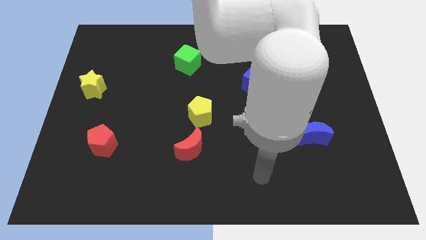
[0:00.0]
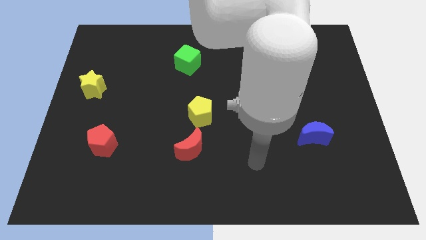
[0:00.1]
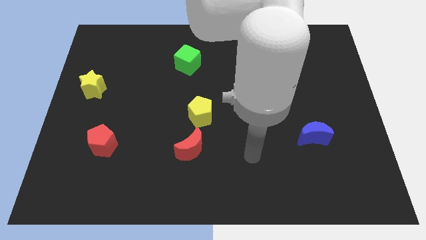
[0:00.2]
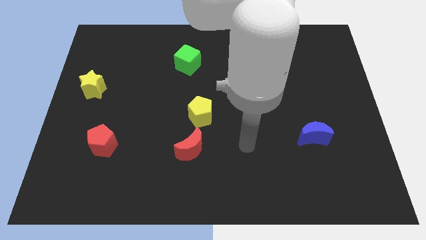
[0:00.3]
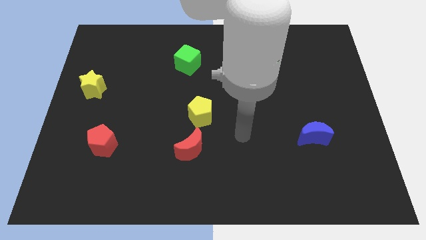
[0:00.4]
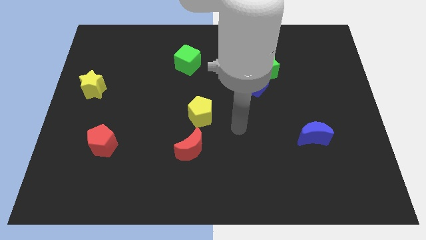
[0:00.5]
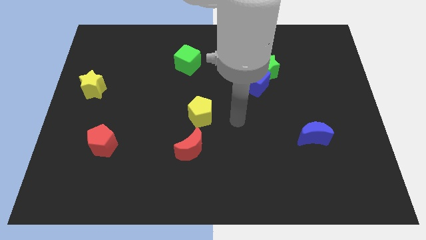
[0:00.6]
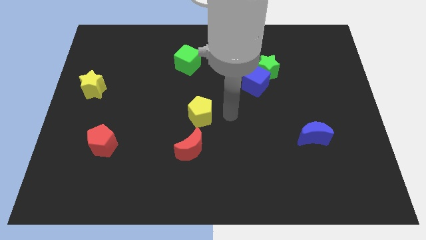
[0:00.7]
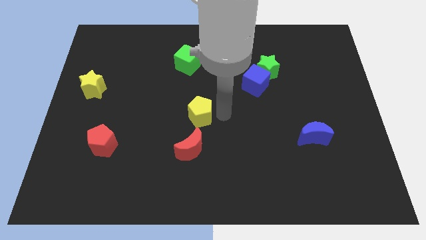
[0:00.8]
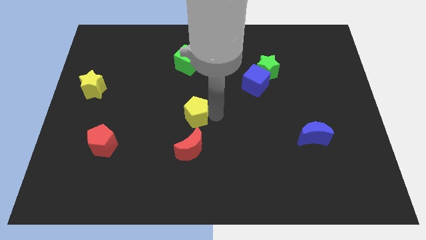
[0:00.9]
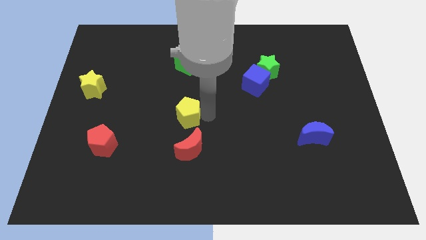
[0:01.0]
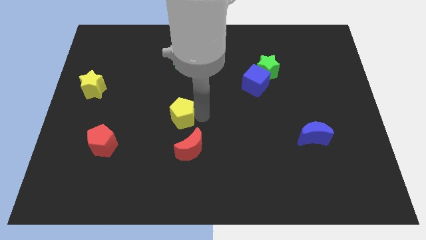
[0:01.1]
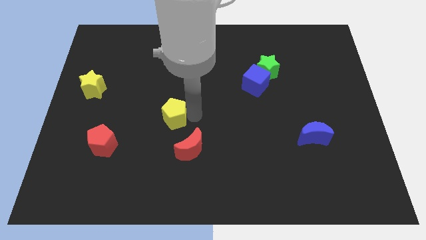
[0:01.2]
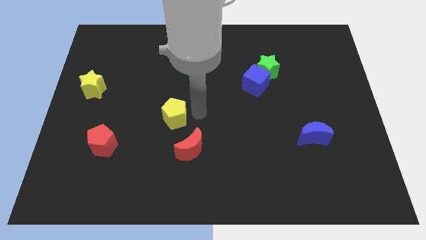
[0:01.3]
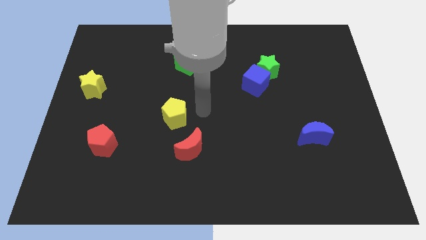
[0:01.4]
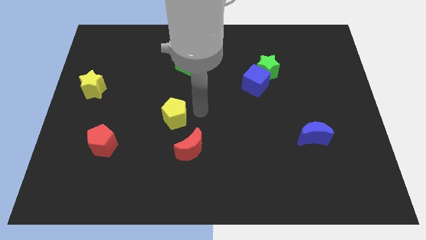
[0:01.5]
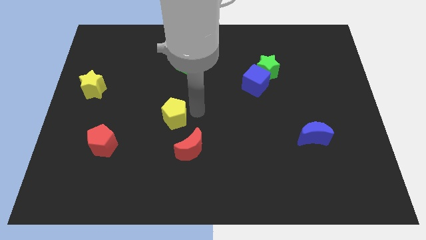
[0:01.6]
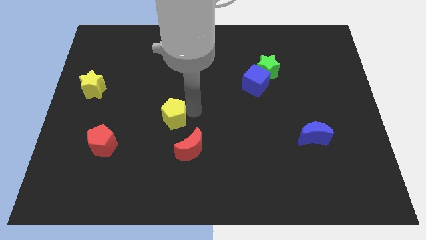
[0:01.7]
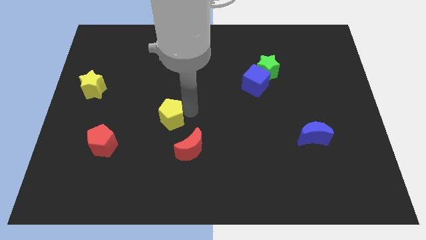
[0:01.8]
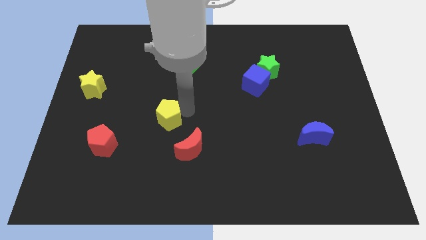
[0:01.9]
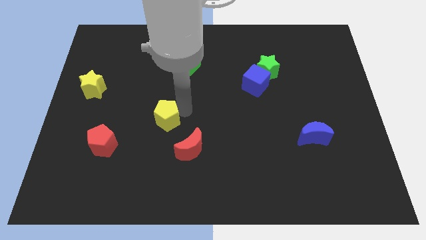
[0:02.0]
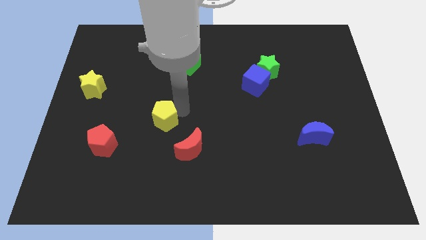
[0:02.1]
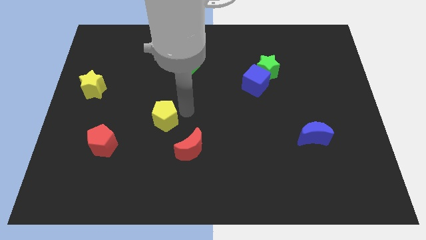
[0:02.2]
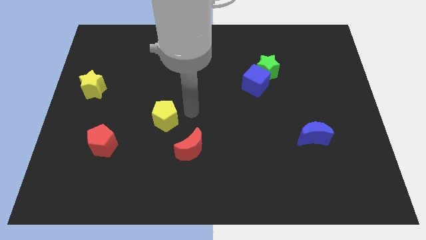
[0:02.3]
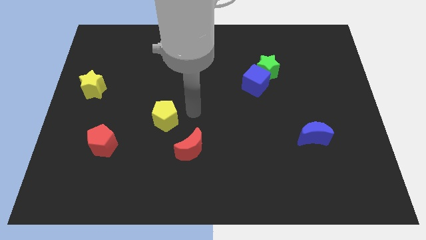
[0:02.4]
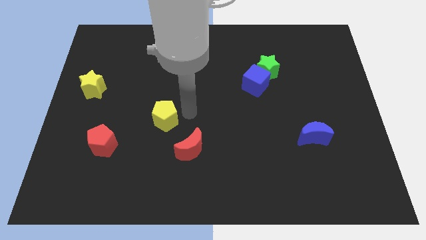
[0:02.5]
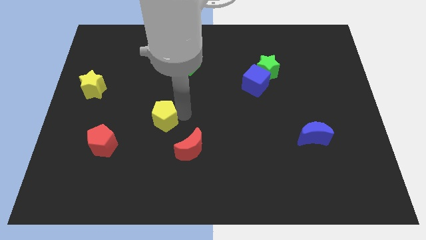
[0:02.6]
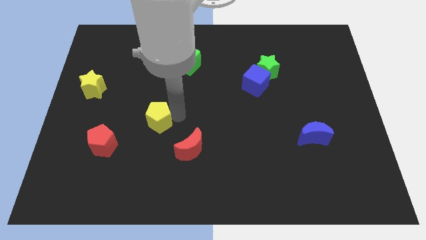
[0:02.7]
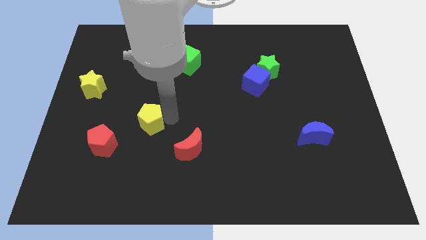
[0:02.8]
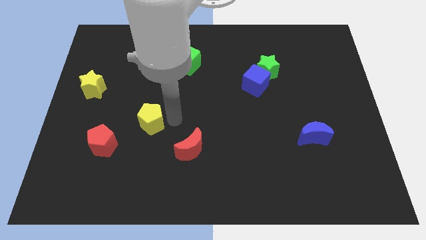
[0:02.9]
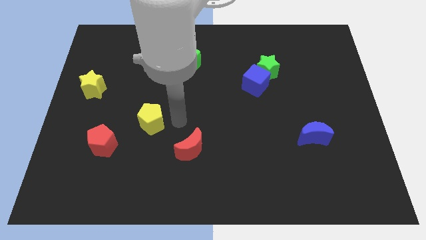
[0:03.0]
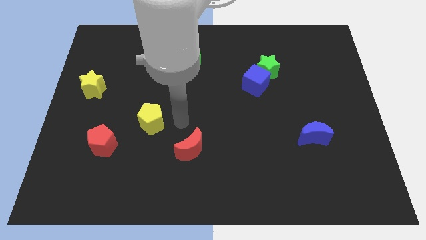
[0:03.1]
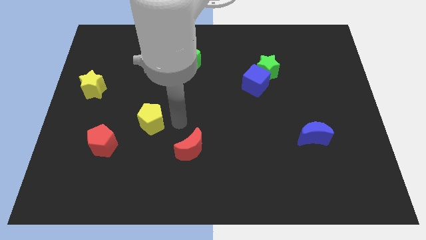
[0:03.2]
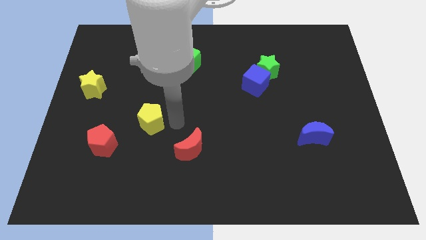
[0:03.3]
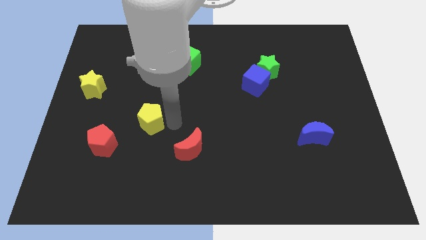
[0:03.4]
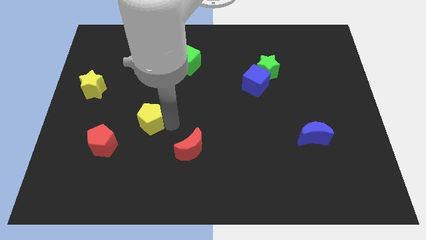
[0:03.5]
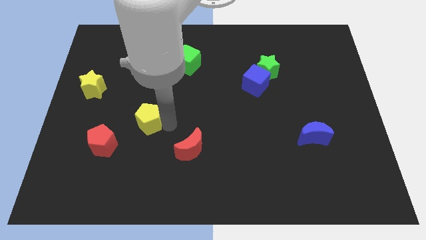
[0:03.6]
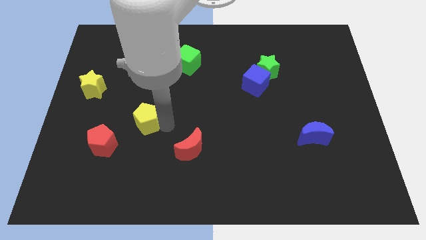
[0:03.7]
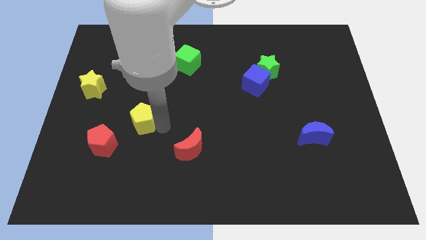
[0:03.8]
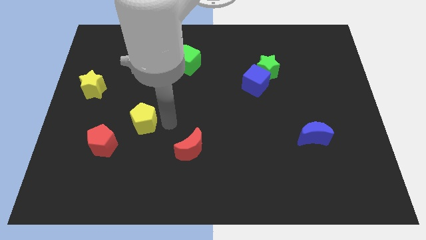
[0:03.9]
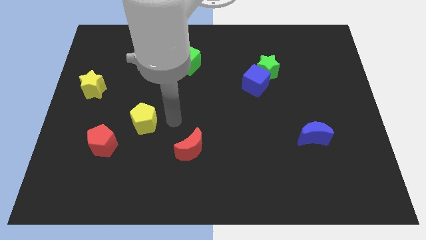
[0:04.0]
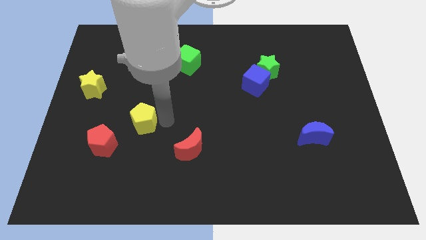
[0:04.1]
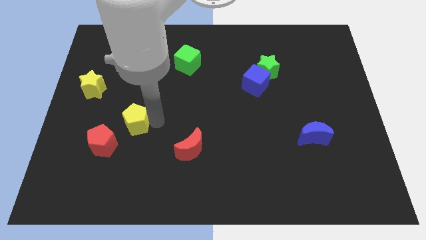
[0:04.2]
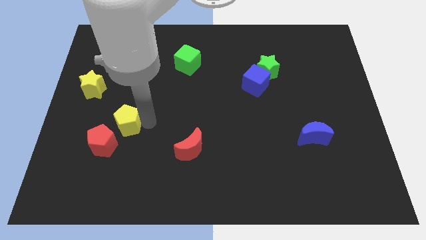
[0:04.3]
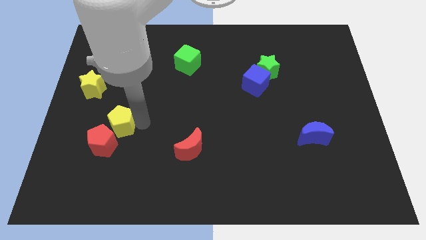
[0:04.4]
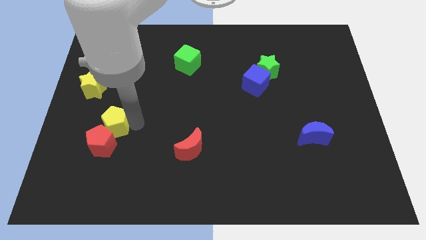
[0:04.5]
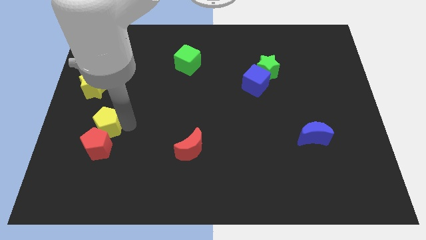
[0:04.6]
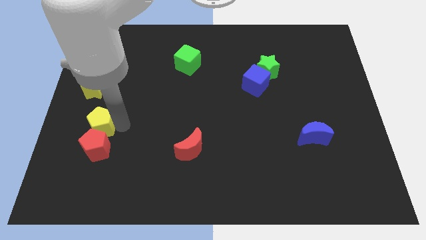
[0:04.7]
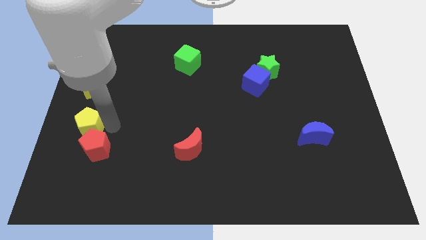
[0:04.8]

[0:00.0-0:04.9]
slide the yellow pentagon to the left side

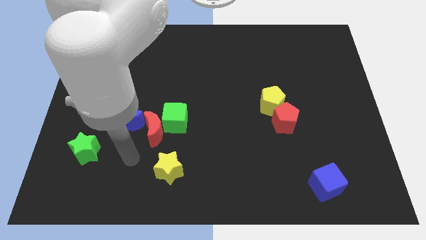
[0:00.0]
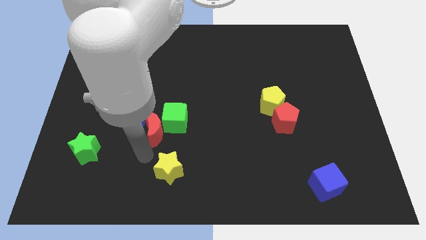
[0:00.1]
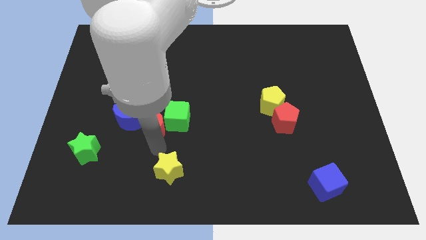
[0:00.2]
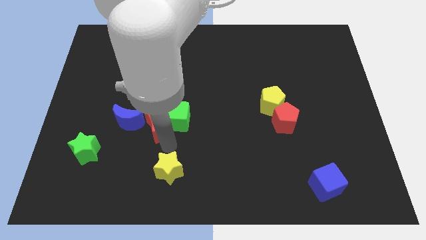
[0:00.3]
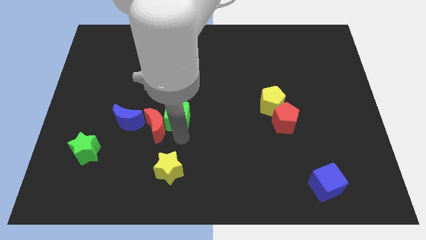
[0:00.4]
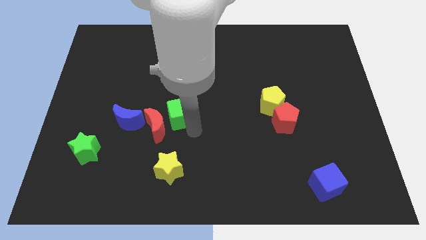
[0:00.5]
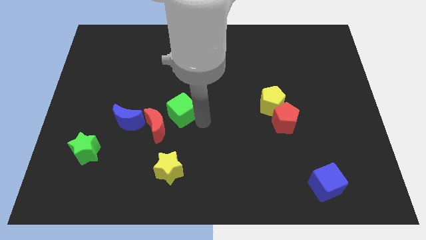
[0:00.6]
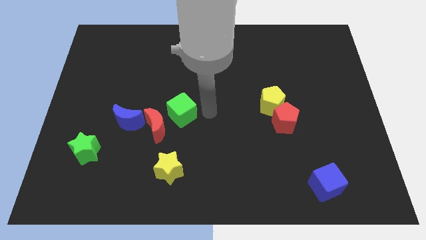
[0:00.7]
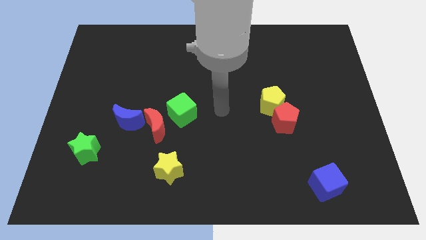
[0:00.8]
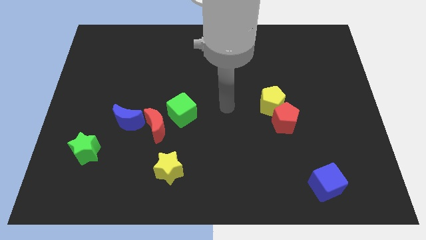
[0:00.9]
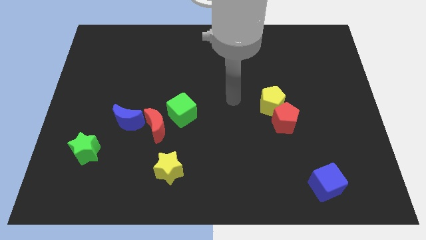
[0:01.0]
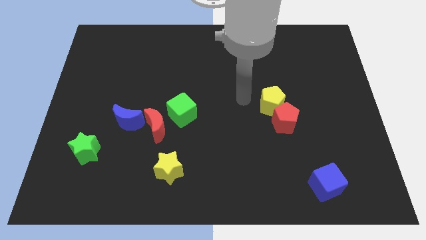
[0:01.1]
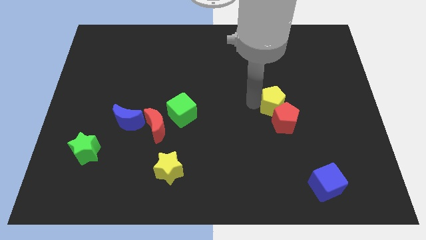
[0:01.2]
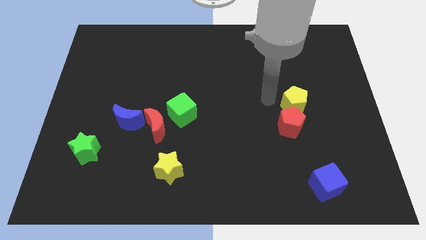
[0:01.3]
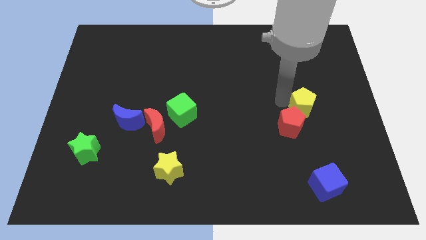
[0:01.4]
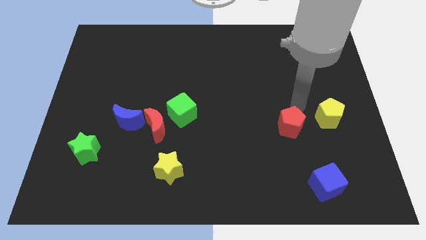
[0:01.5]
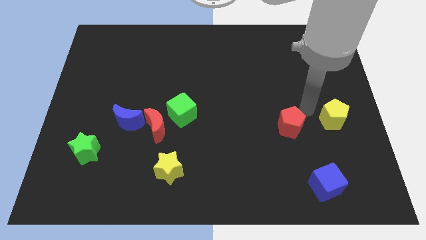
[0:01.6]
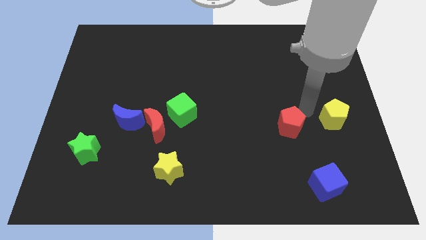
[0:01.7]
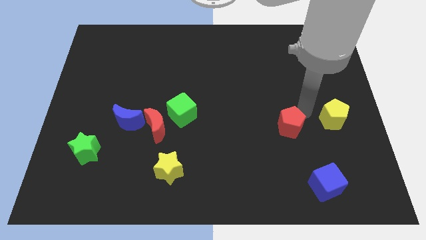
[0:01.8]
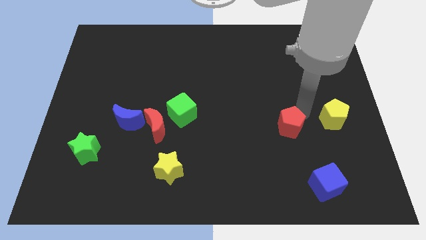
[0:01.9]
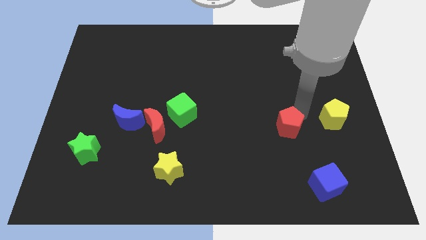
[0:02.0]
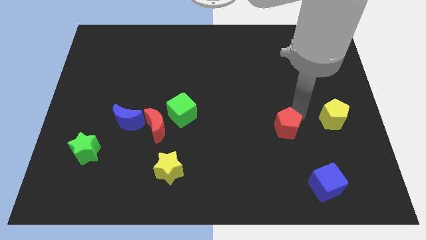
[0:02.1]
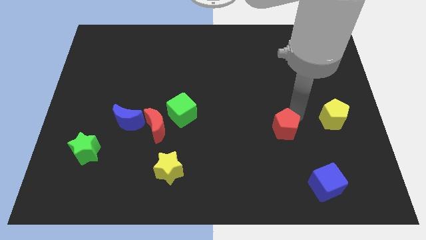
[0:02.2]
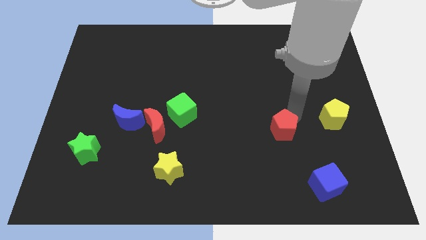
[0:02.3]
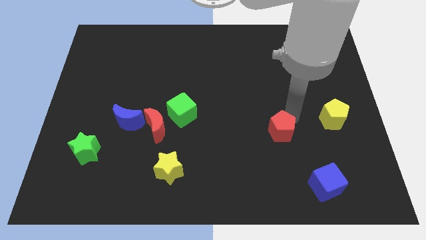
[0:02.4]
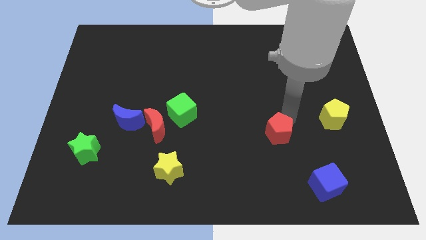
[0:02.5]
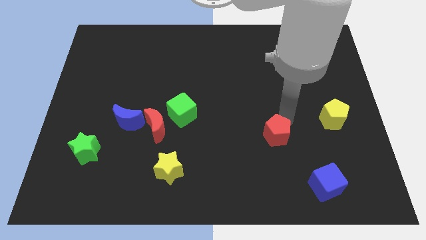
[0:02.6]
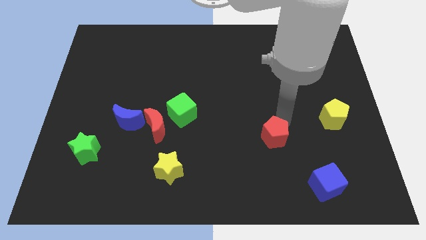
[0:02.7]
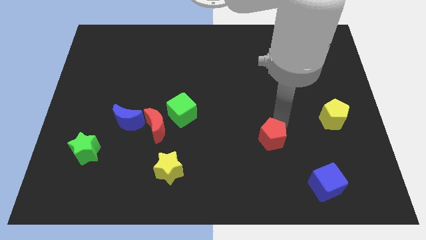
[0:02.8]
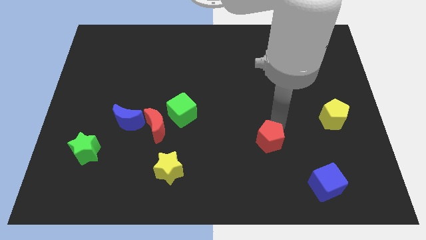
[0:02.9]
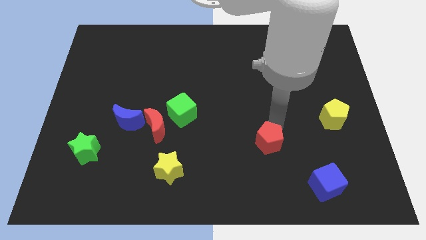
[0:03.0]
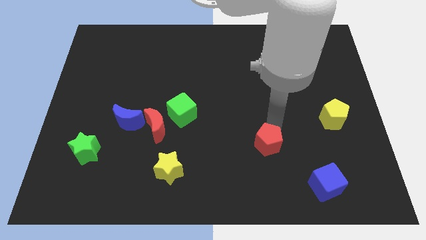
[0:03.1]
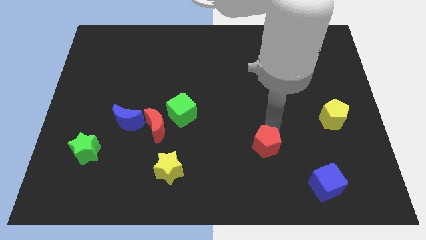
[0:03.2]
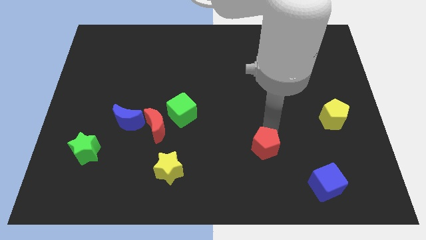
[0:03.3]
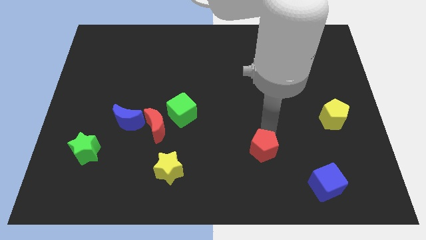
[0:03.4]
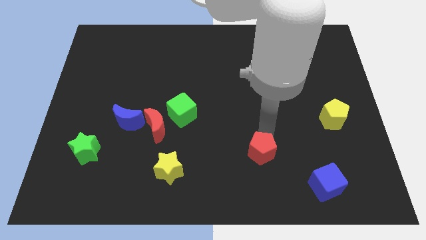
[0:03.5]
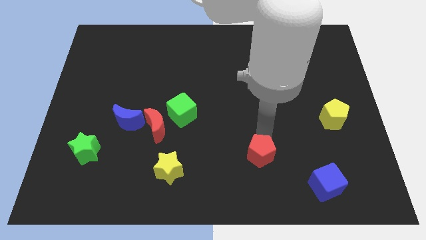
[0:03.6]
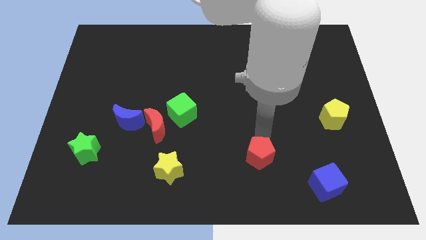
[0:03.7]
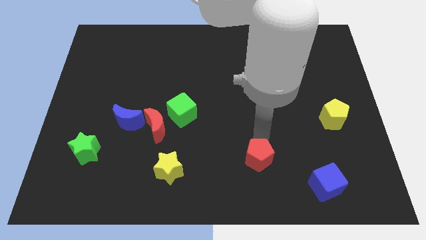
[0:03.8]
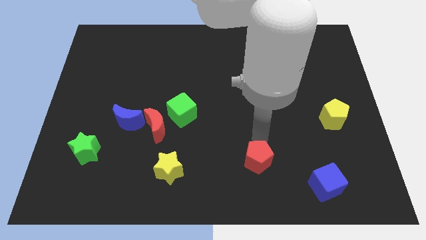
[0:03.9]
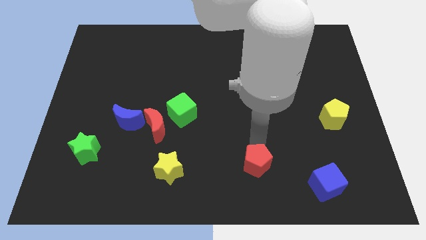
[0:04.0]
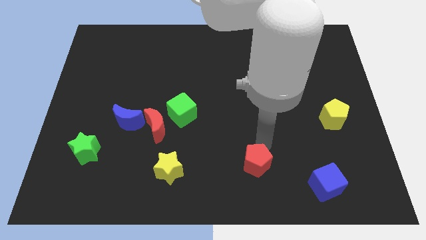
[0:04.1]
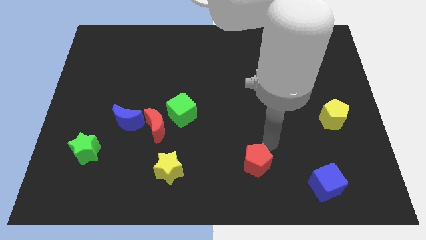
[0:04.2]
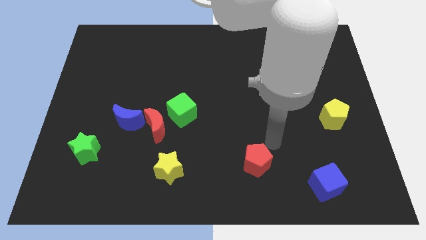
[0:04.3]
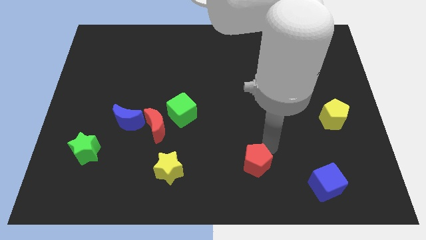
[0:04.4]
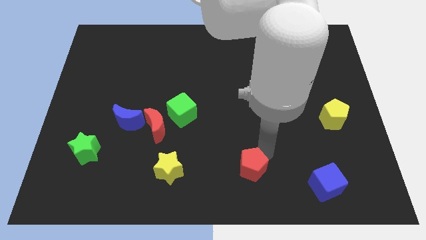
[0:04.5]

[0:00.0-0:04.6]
slide the red pentagon to the bottom
